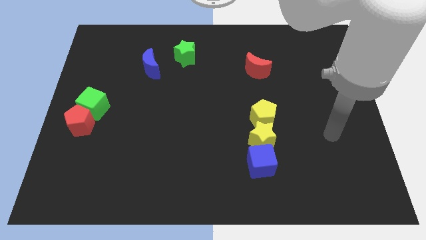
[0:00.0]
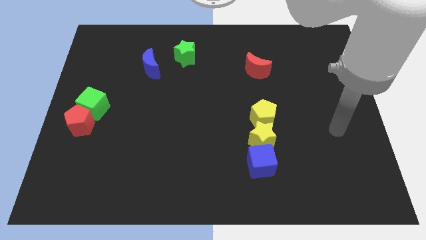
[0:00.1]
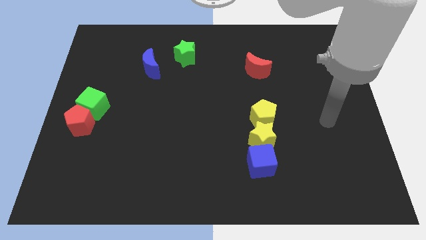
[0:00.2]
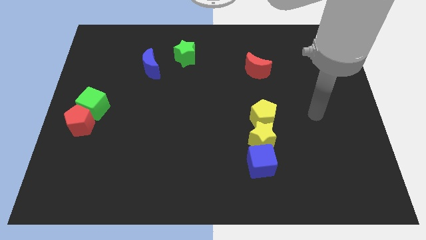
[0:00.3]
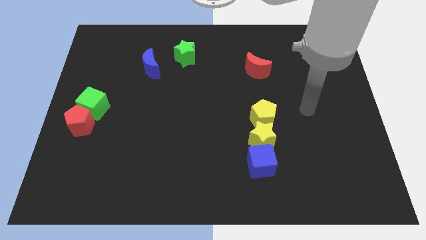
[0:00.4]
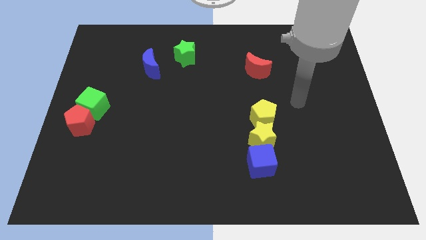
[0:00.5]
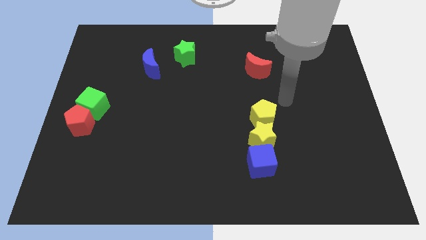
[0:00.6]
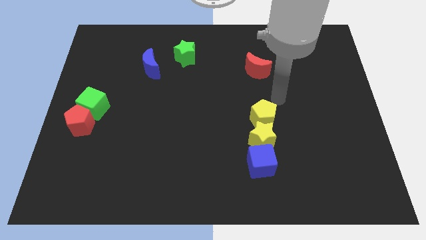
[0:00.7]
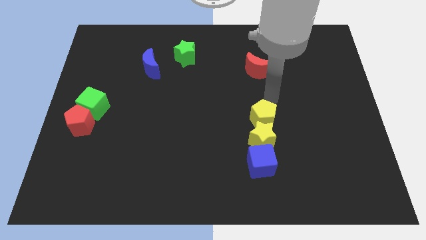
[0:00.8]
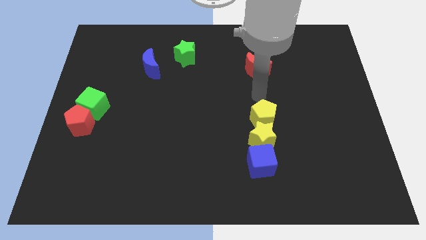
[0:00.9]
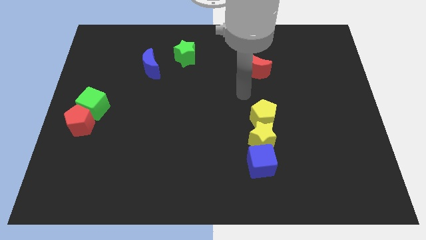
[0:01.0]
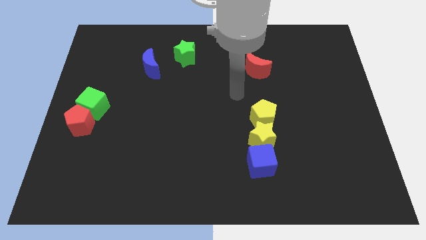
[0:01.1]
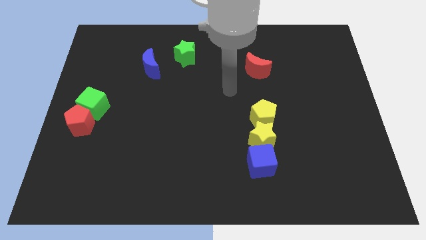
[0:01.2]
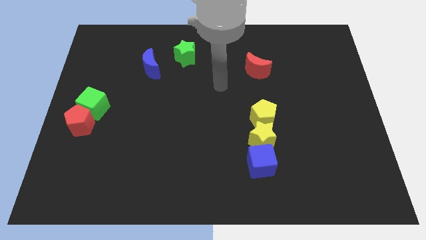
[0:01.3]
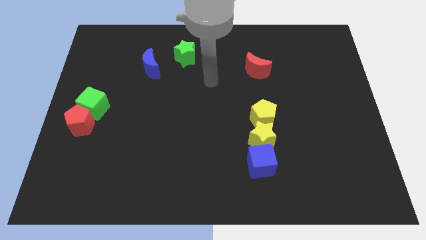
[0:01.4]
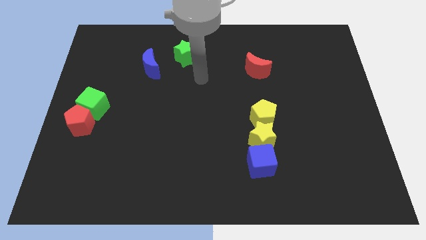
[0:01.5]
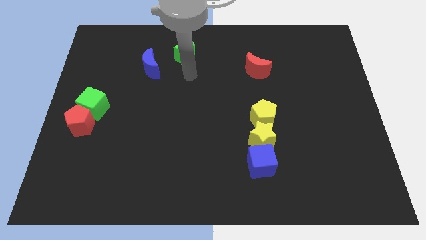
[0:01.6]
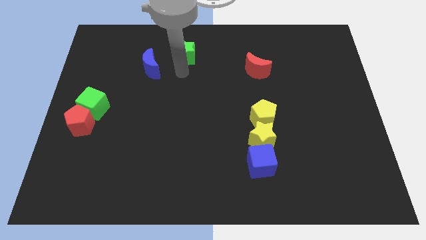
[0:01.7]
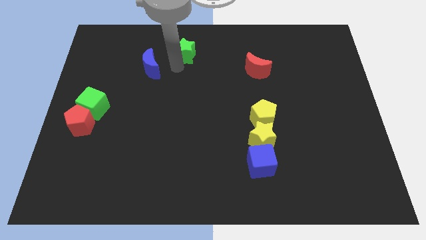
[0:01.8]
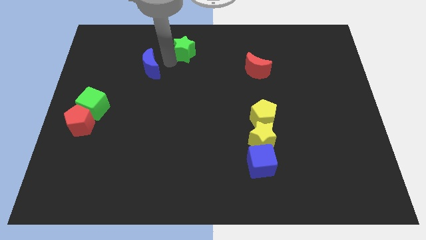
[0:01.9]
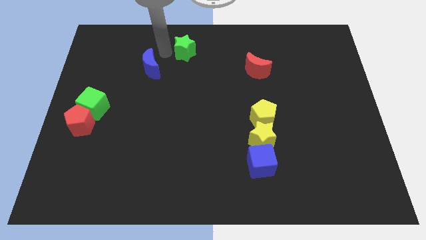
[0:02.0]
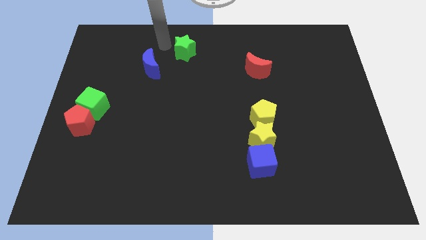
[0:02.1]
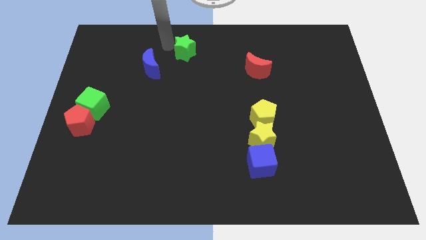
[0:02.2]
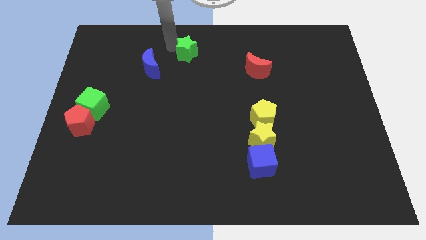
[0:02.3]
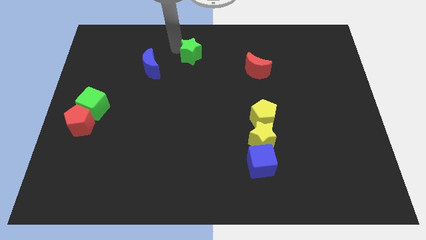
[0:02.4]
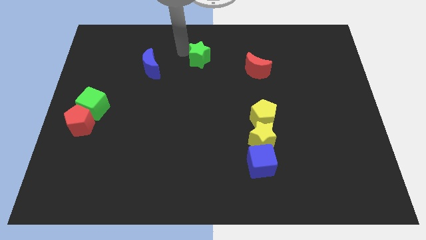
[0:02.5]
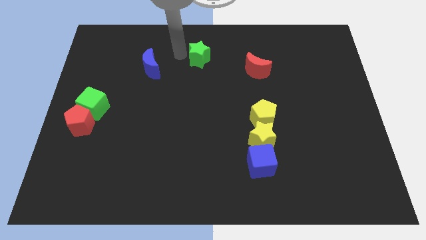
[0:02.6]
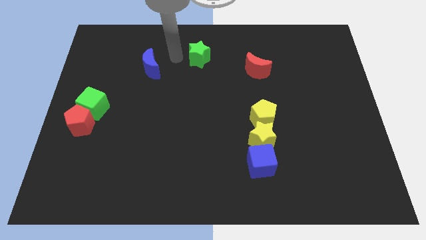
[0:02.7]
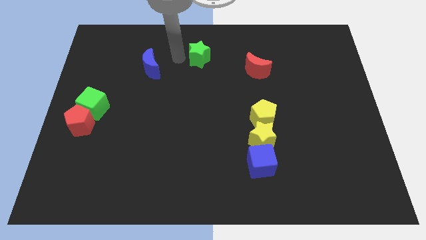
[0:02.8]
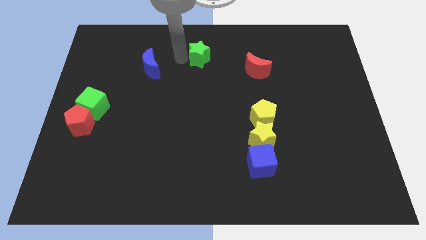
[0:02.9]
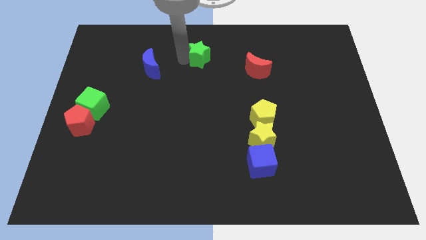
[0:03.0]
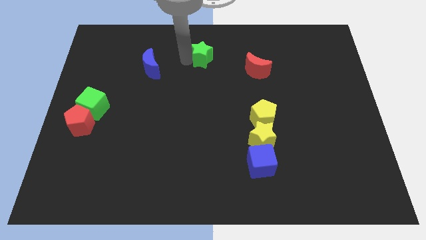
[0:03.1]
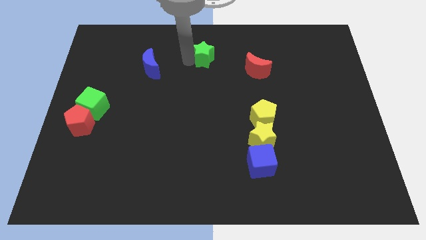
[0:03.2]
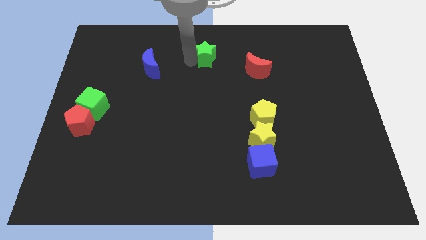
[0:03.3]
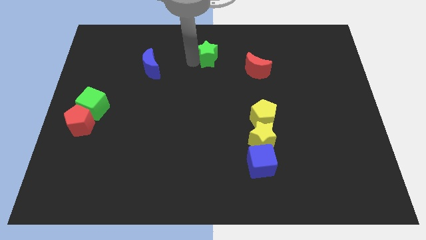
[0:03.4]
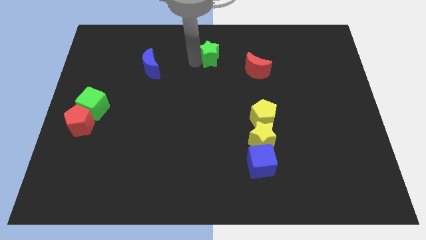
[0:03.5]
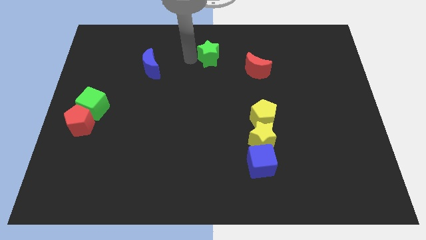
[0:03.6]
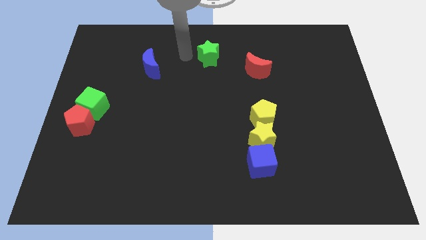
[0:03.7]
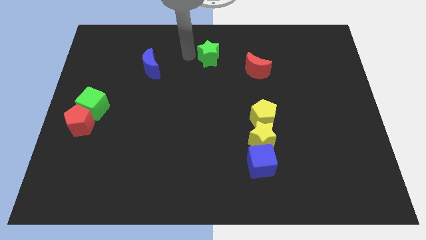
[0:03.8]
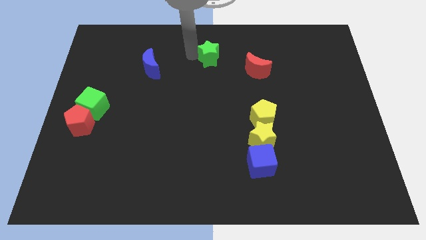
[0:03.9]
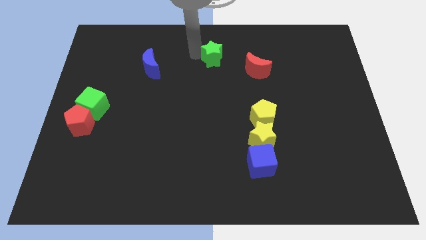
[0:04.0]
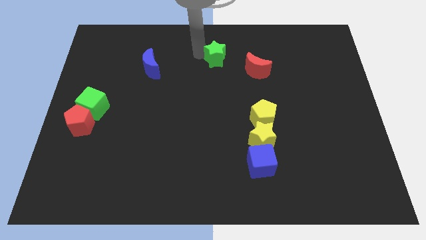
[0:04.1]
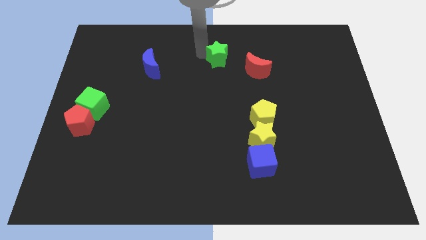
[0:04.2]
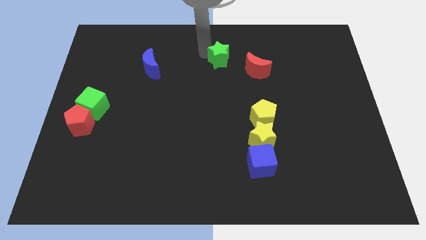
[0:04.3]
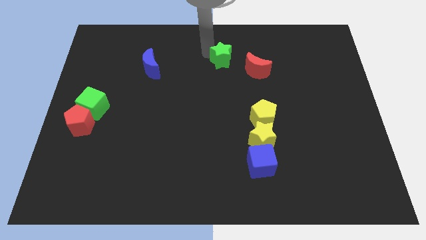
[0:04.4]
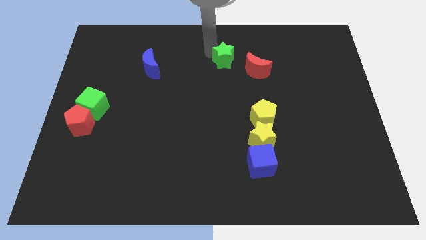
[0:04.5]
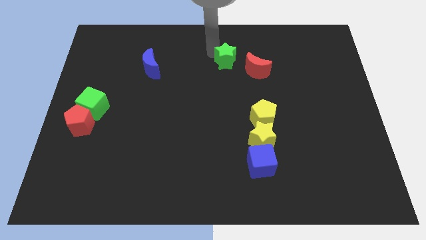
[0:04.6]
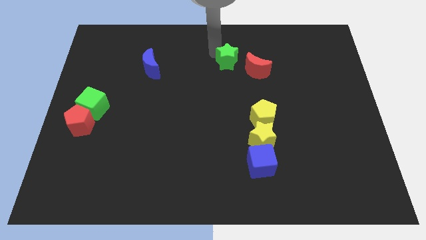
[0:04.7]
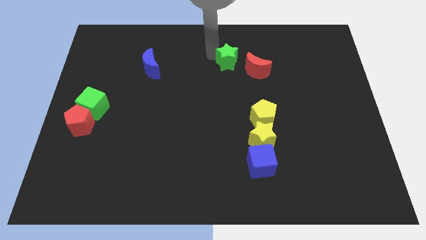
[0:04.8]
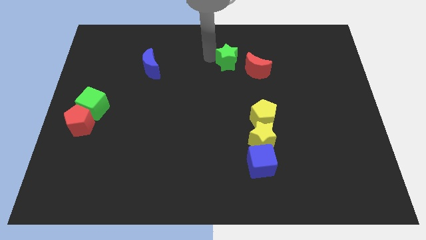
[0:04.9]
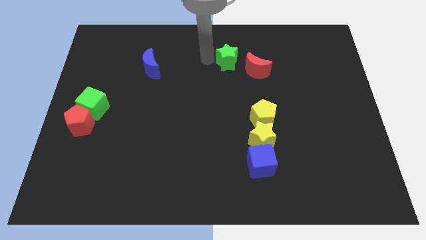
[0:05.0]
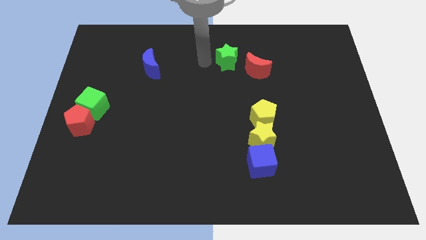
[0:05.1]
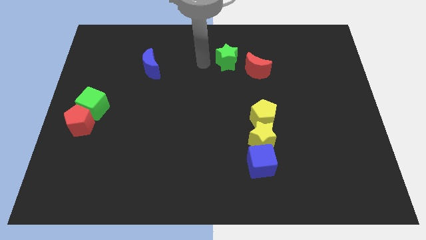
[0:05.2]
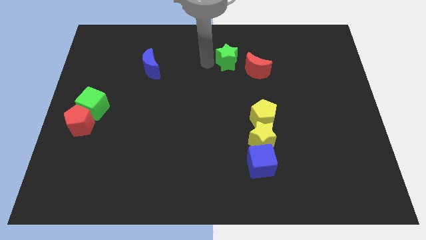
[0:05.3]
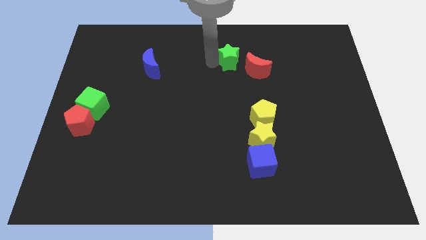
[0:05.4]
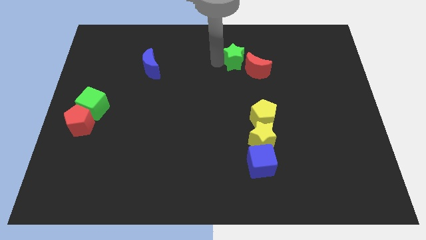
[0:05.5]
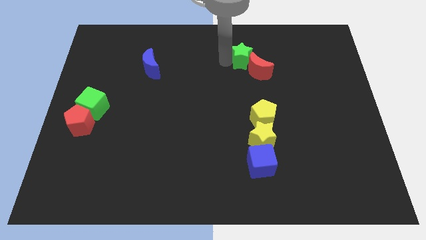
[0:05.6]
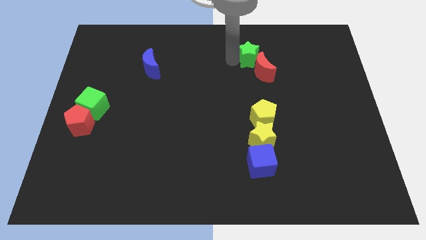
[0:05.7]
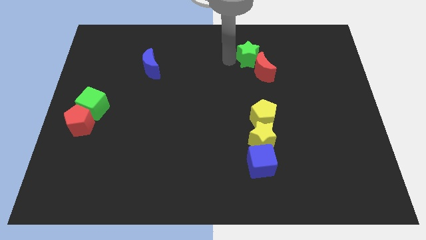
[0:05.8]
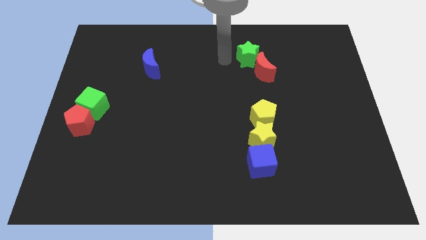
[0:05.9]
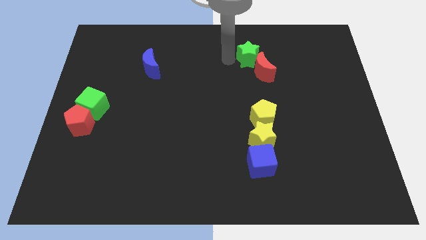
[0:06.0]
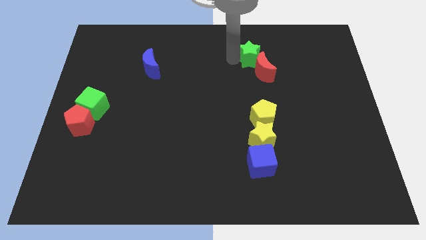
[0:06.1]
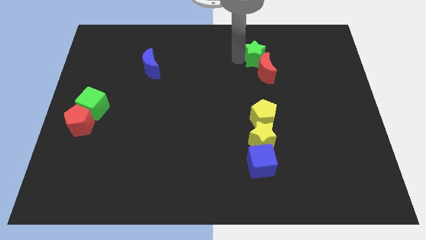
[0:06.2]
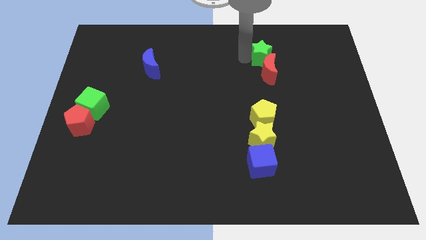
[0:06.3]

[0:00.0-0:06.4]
push the green star to the right

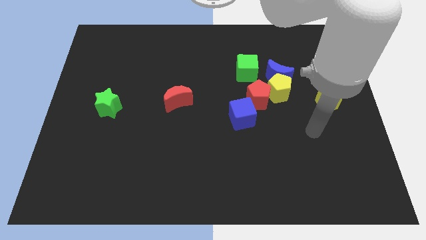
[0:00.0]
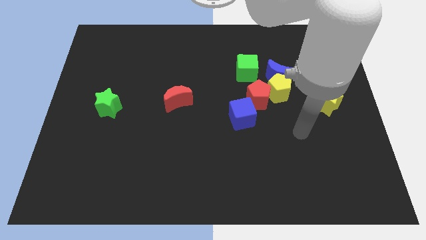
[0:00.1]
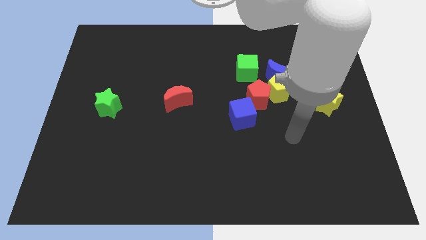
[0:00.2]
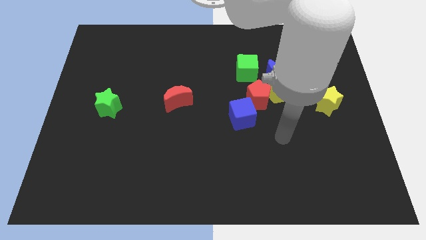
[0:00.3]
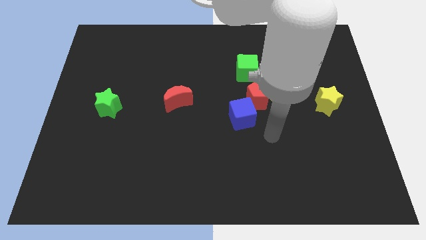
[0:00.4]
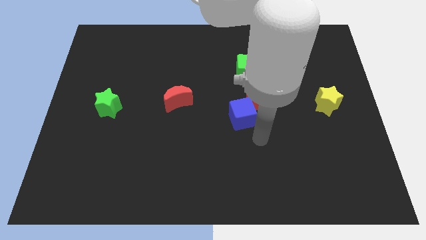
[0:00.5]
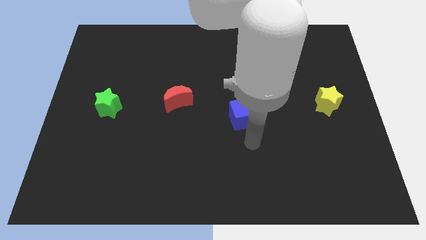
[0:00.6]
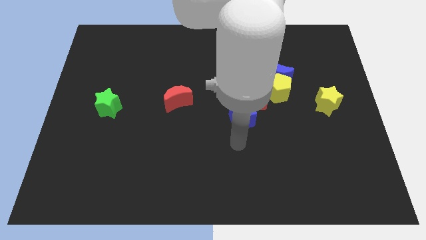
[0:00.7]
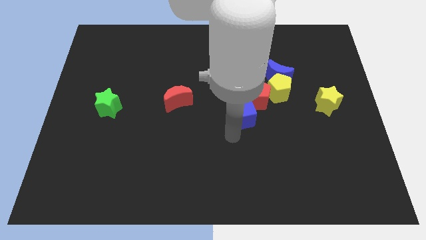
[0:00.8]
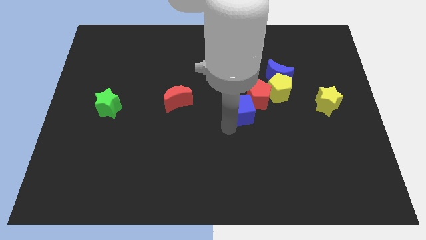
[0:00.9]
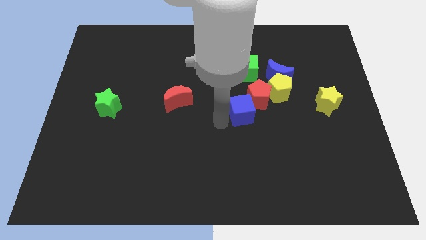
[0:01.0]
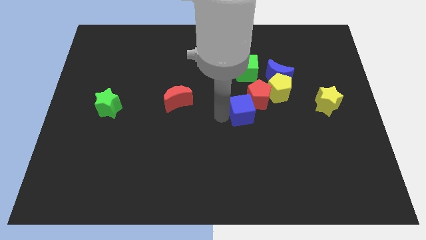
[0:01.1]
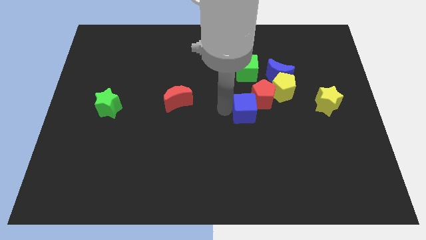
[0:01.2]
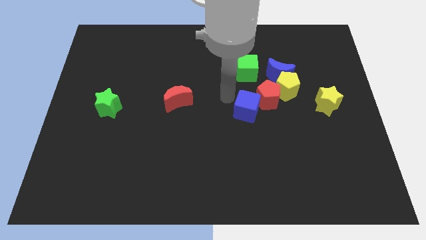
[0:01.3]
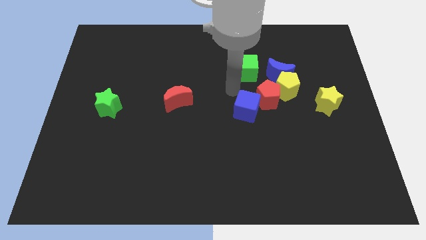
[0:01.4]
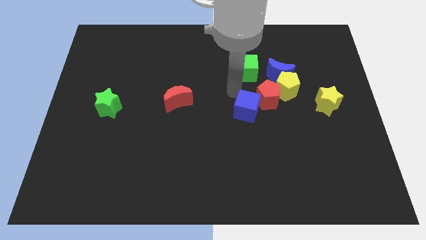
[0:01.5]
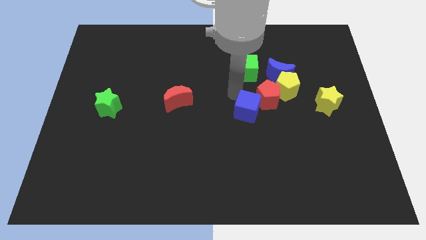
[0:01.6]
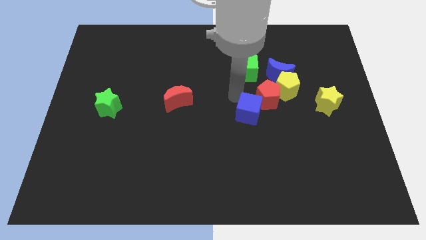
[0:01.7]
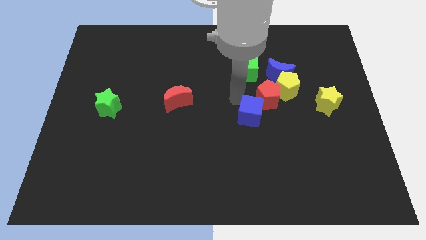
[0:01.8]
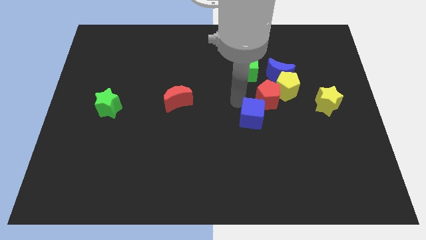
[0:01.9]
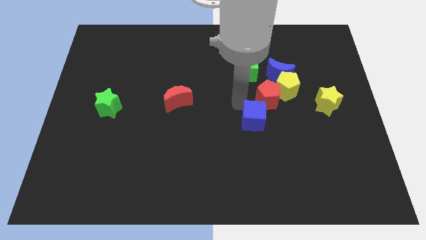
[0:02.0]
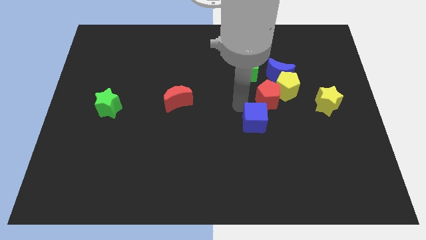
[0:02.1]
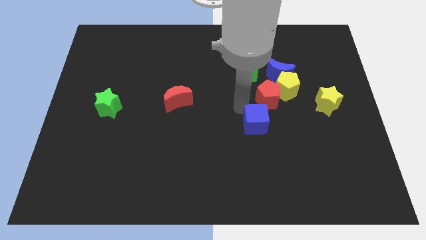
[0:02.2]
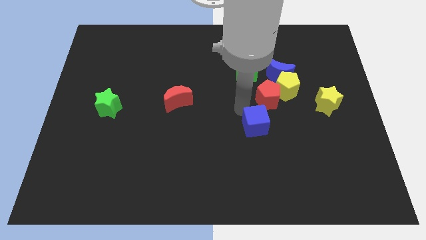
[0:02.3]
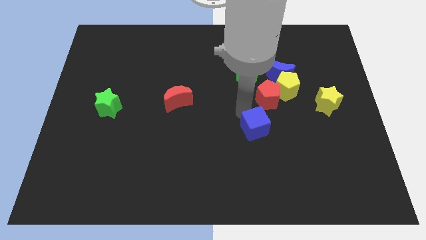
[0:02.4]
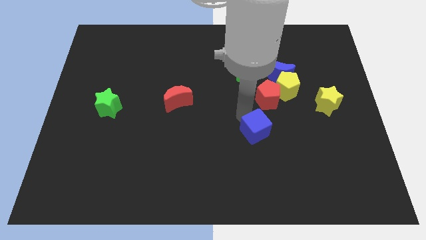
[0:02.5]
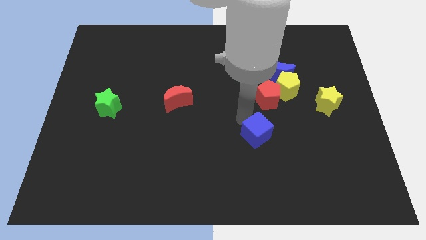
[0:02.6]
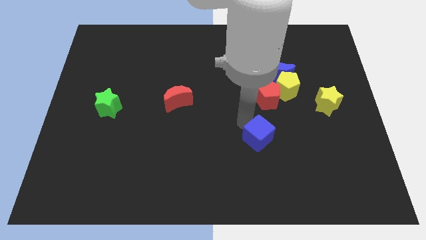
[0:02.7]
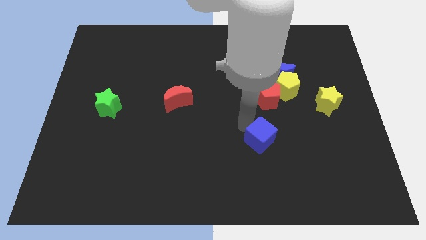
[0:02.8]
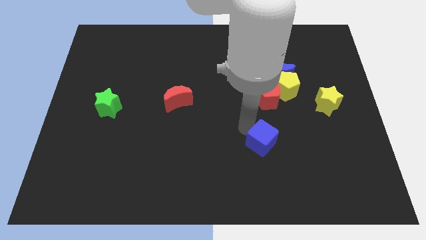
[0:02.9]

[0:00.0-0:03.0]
move the blue cube somewhat down and then right
